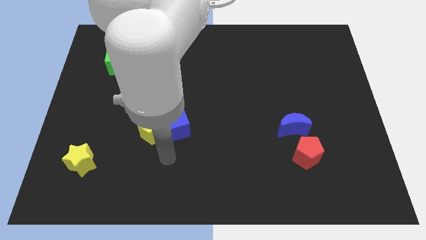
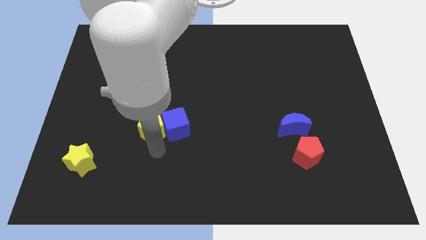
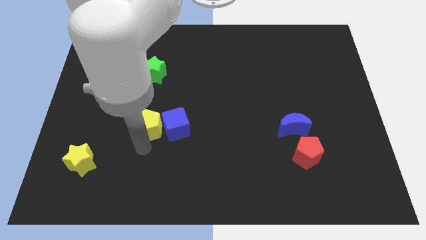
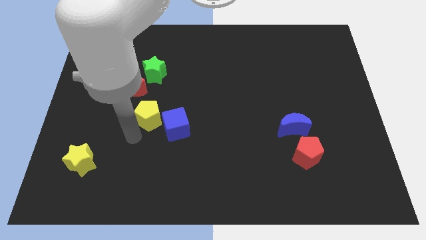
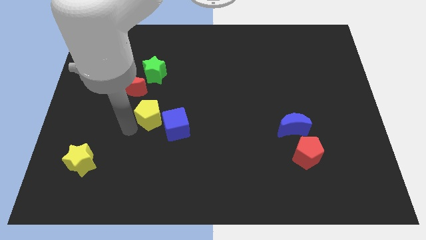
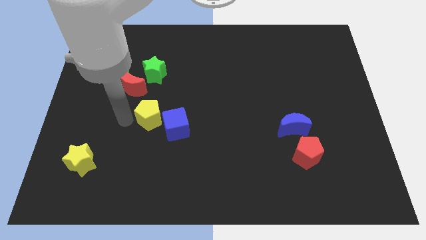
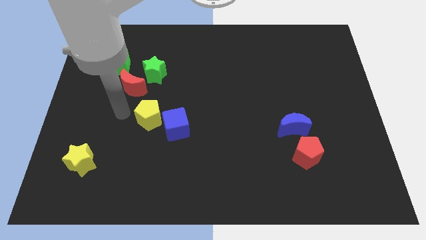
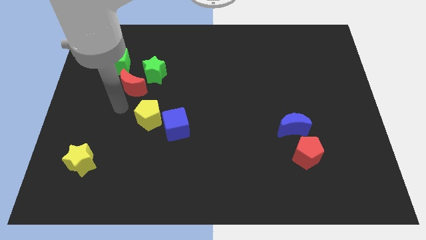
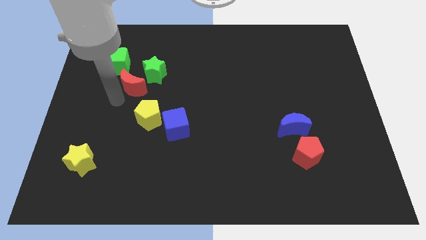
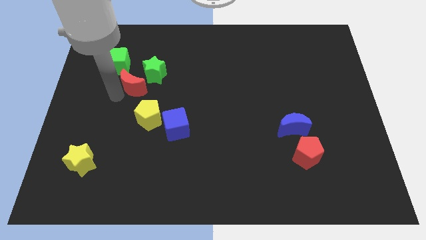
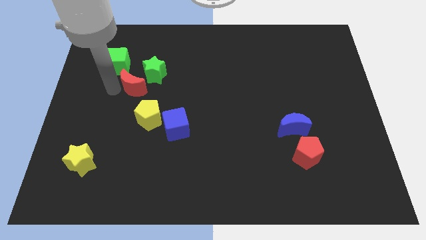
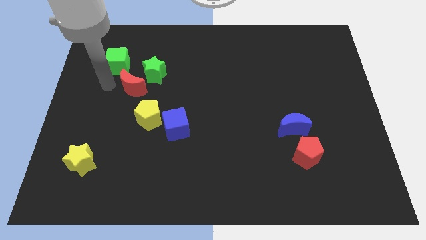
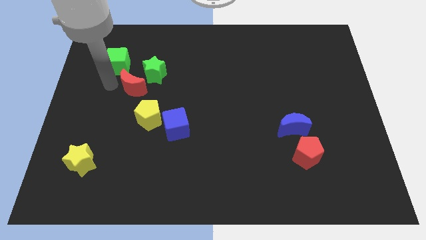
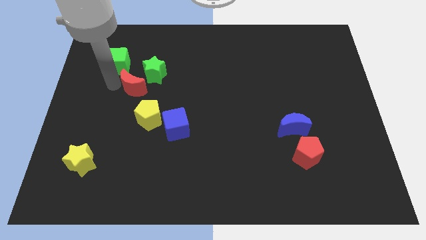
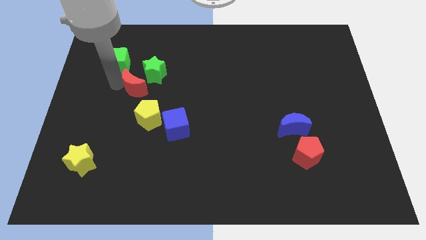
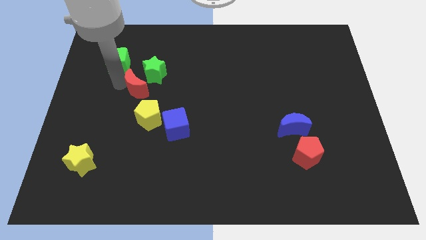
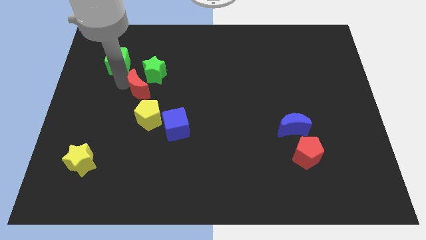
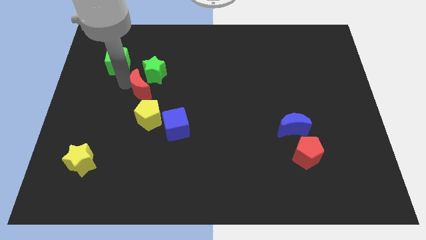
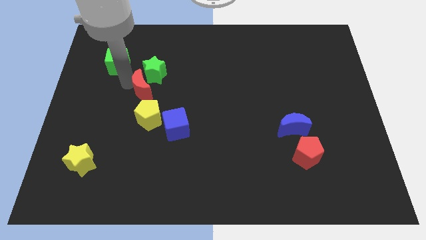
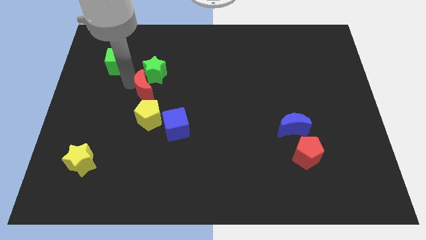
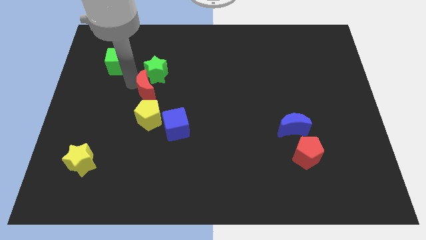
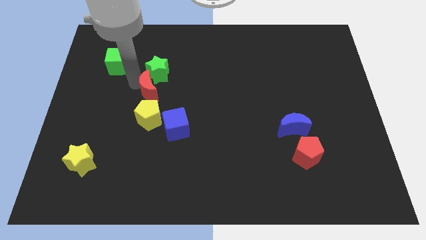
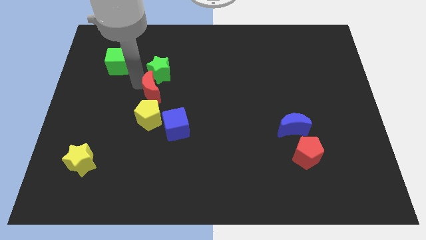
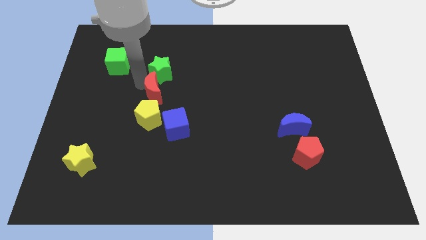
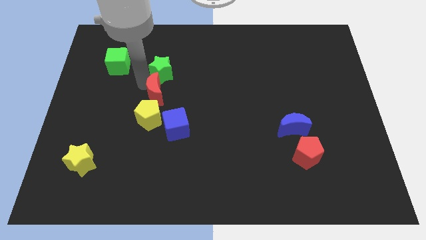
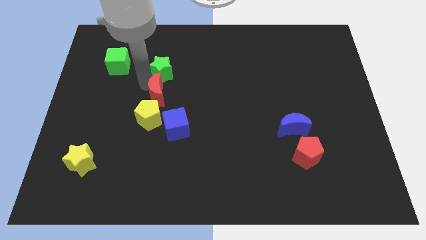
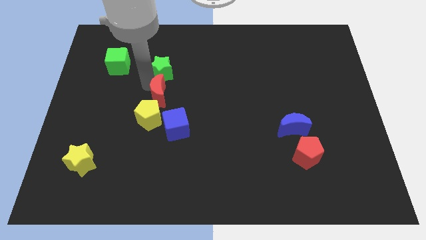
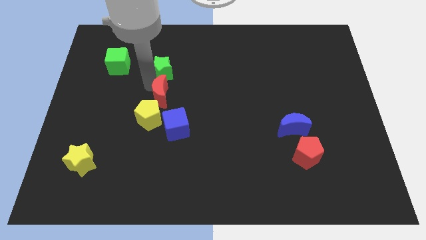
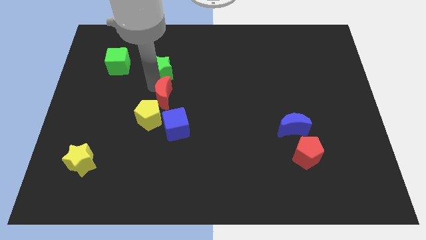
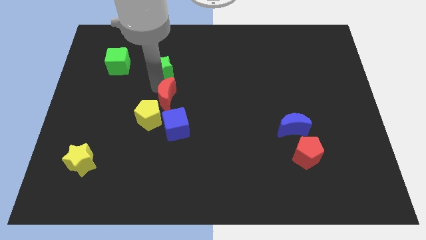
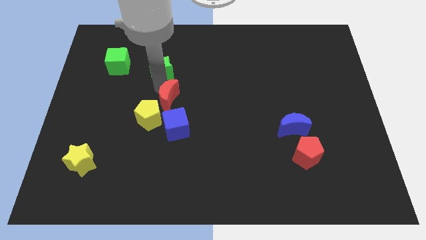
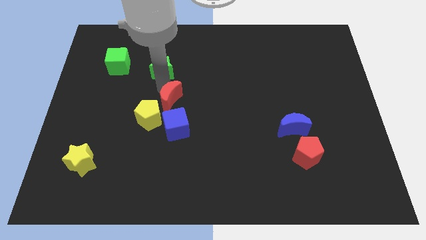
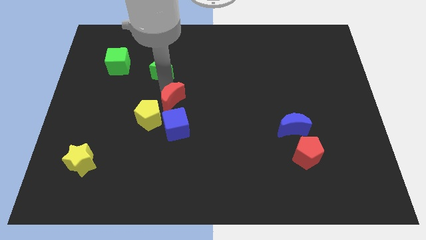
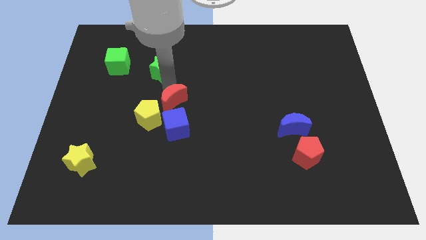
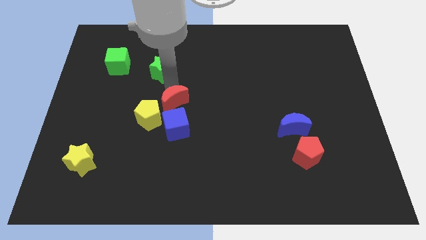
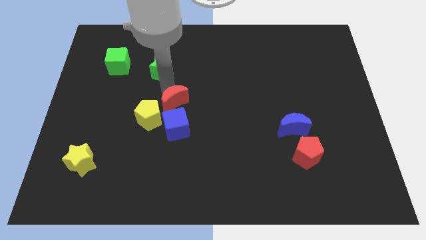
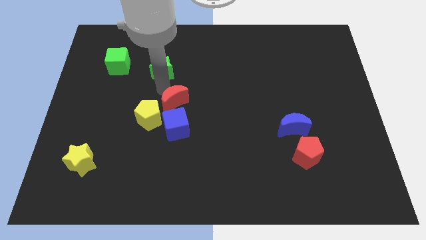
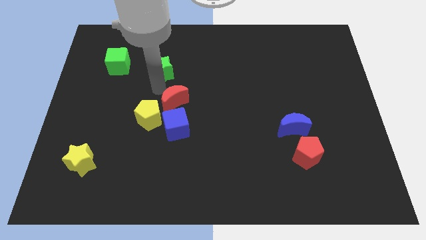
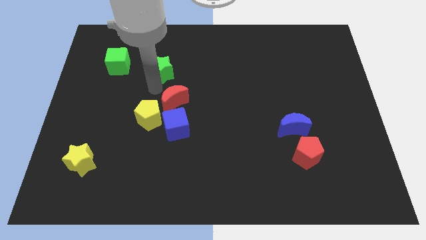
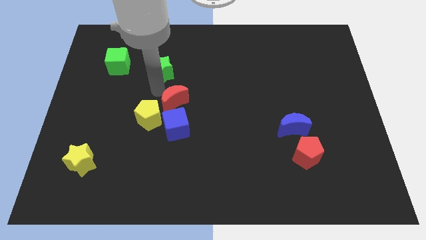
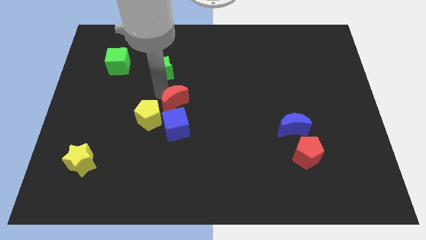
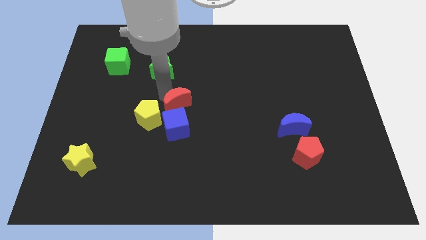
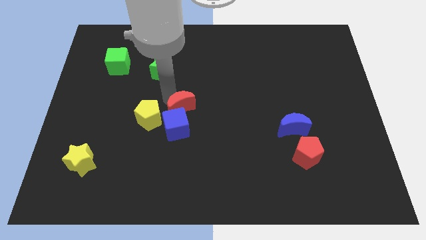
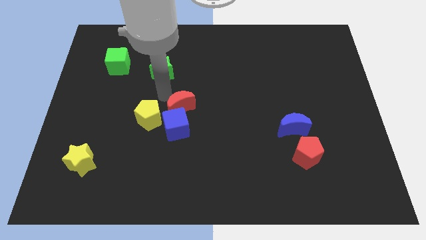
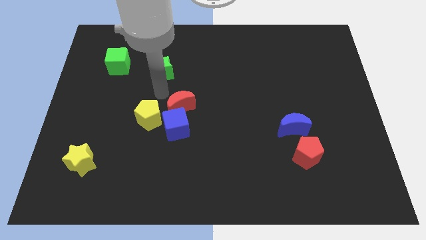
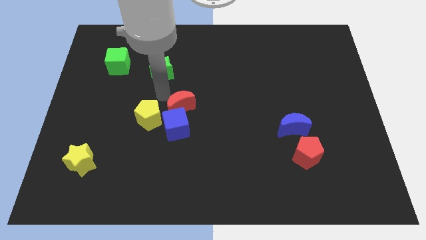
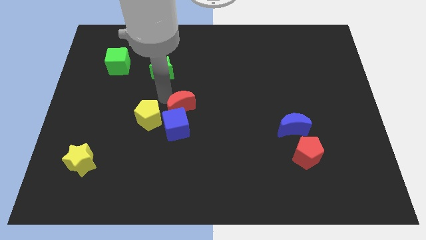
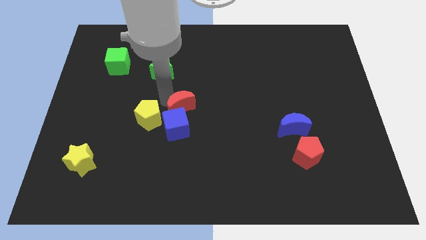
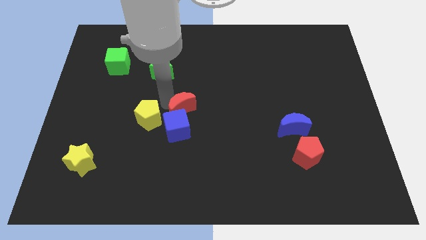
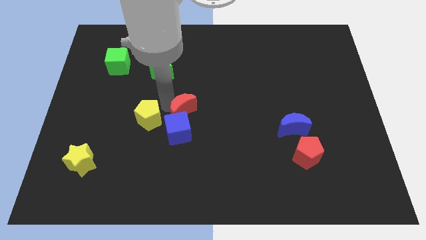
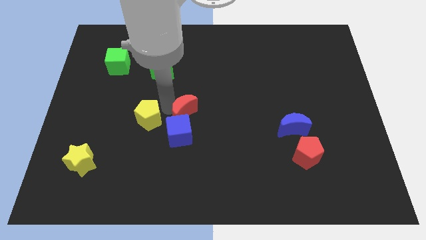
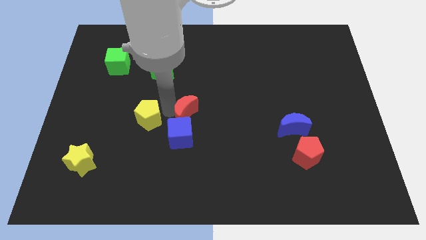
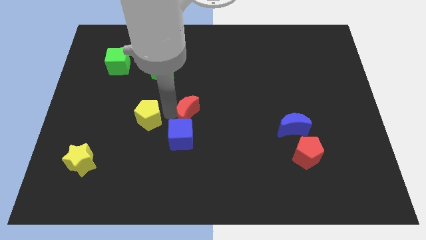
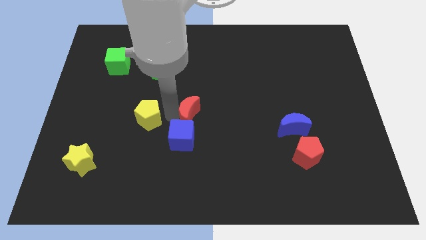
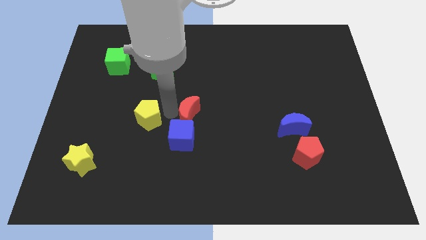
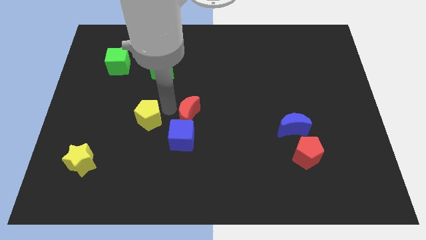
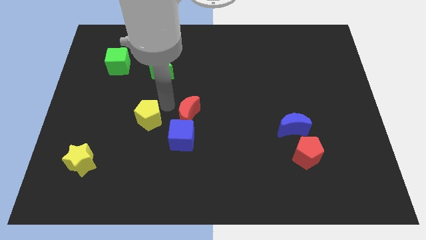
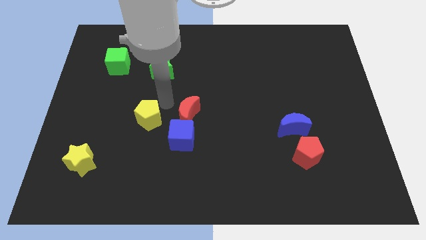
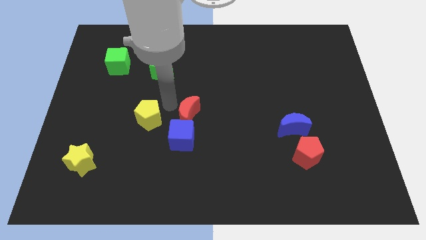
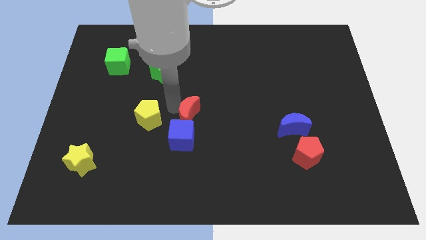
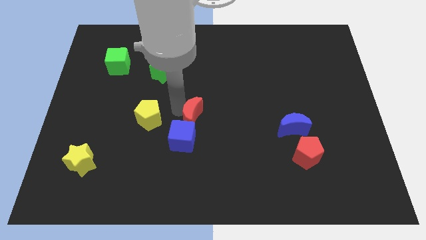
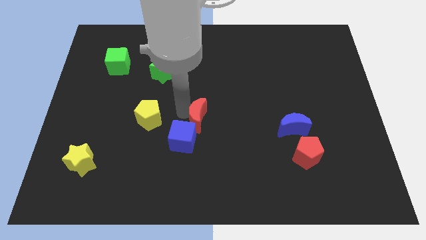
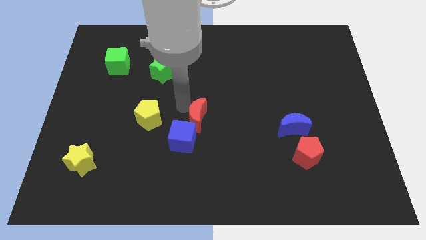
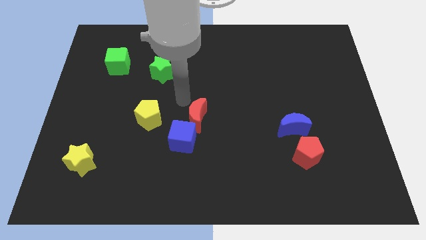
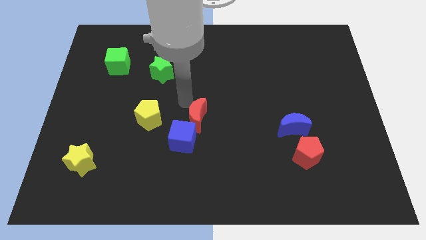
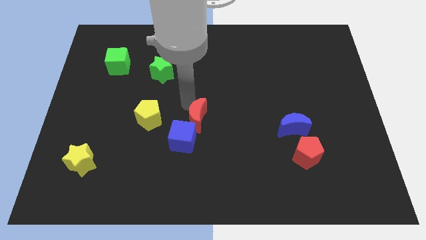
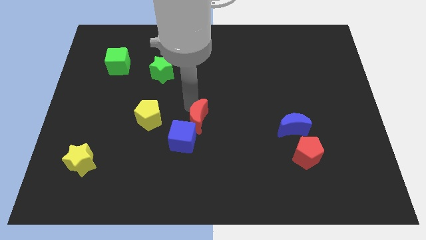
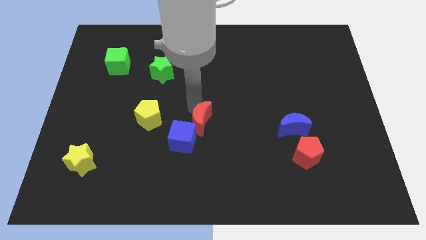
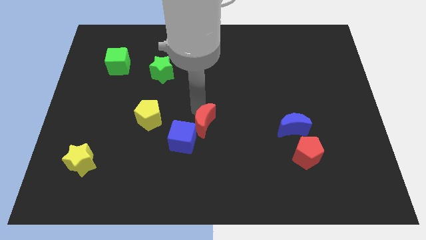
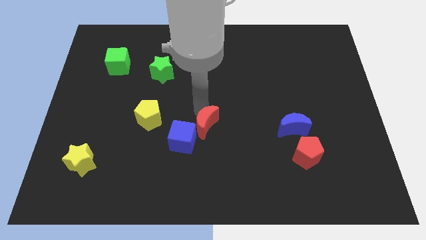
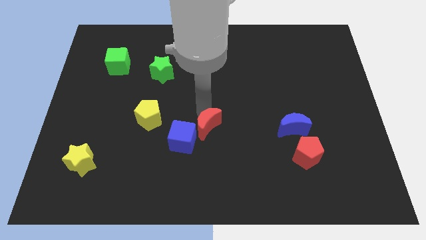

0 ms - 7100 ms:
push the red moon downwards and right

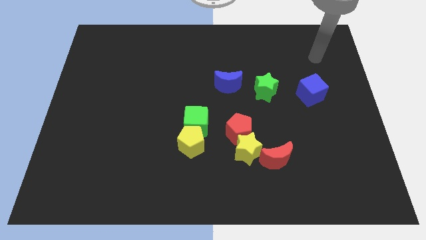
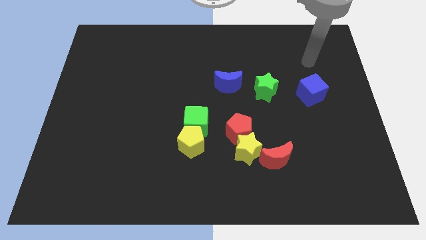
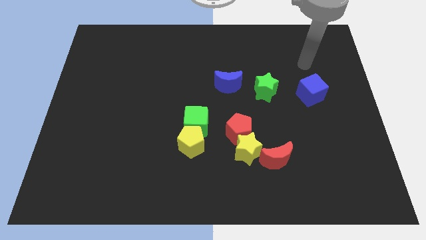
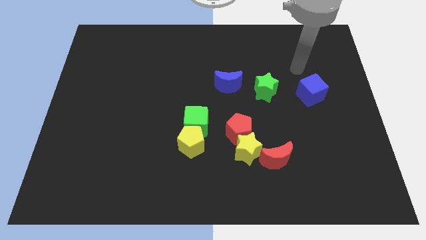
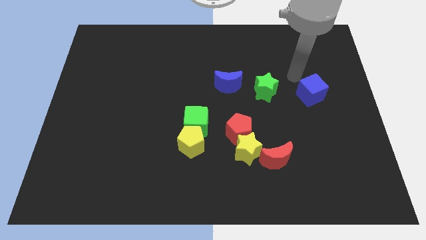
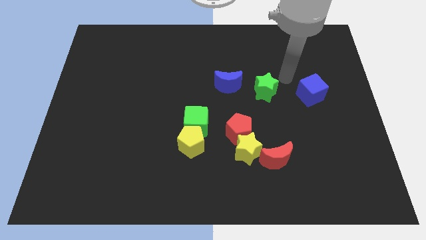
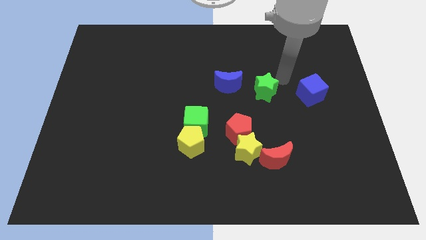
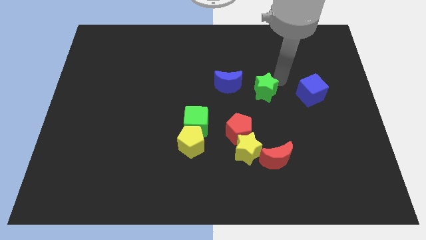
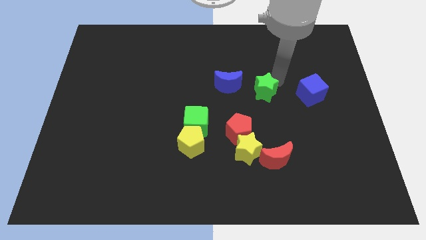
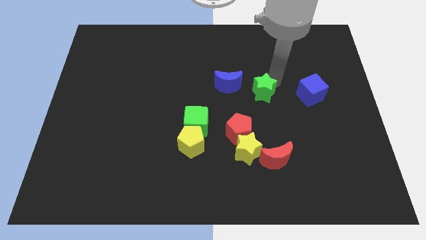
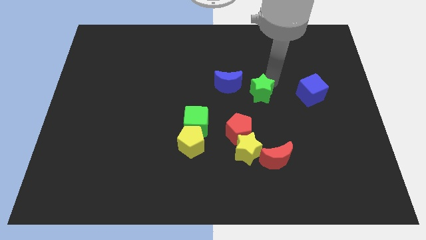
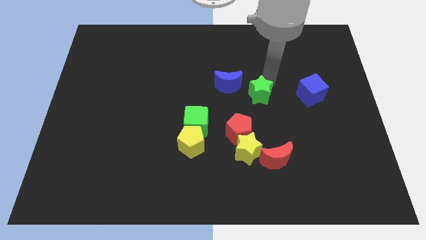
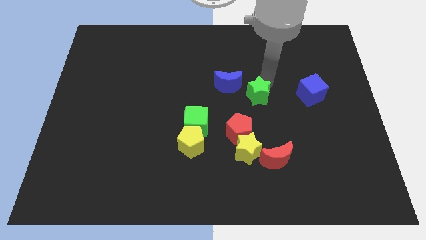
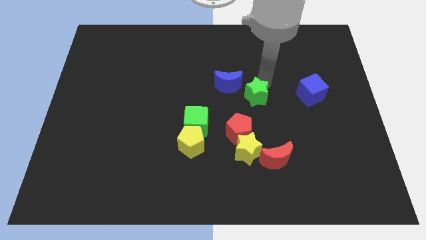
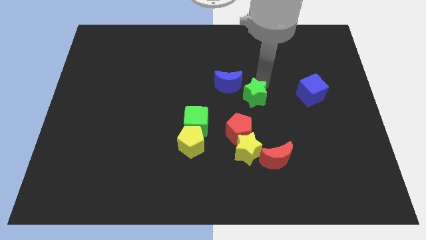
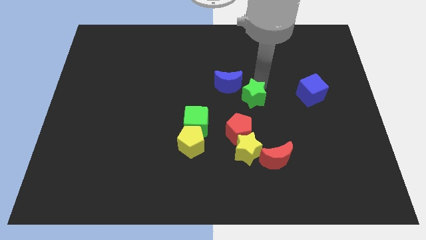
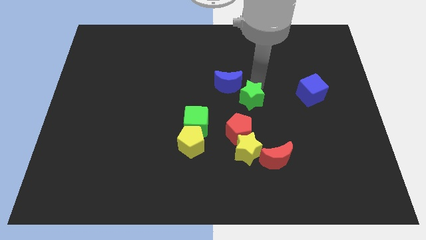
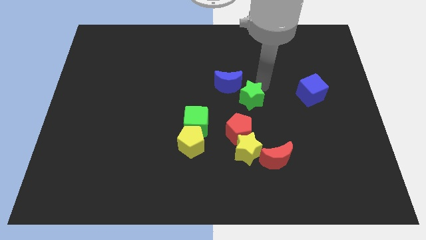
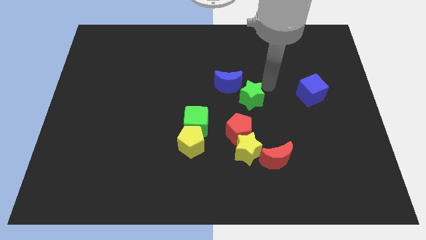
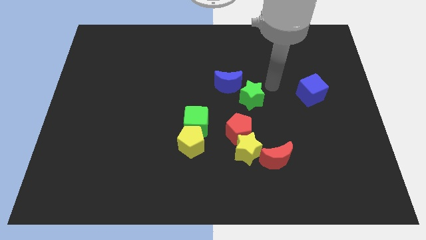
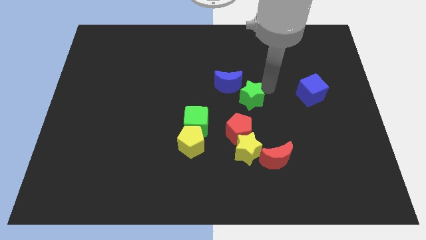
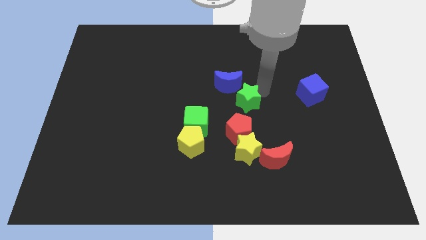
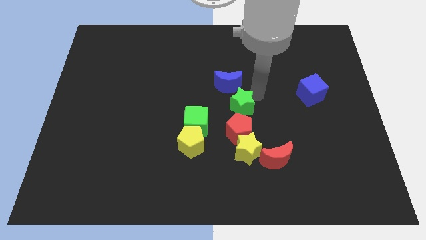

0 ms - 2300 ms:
move the green star down and left a little
